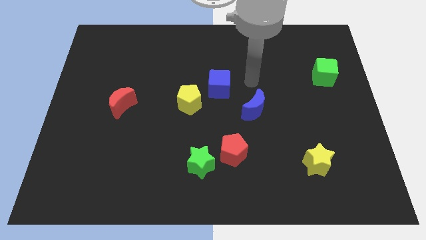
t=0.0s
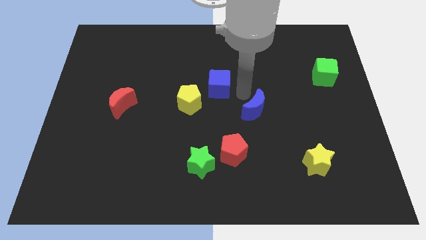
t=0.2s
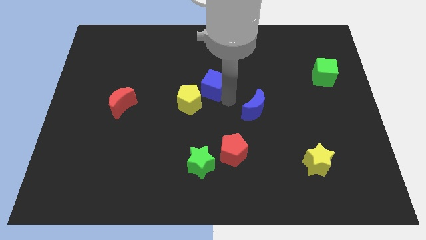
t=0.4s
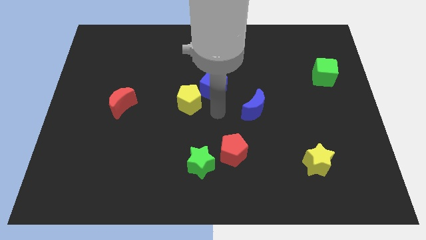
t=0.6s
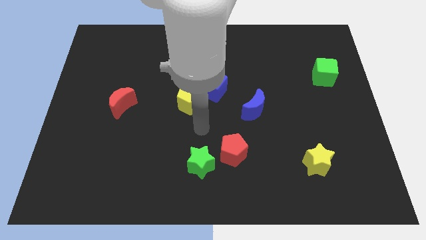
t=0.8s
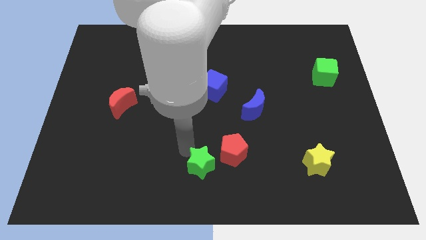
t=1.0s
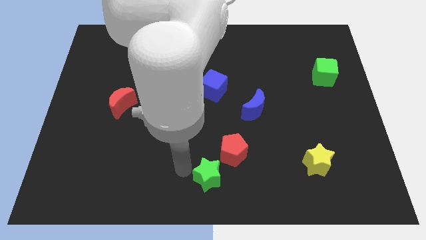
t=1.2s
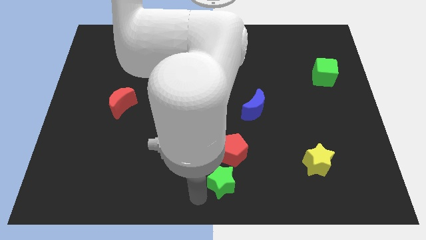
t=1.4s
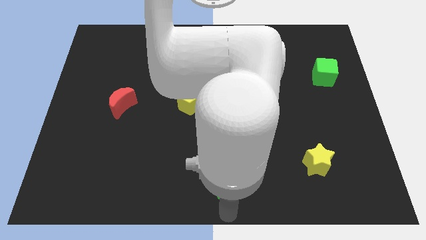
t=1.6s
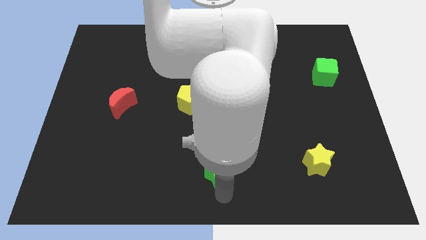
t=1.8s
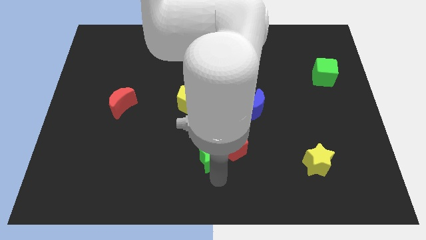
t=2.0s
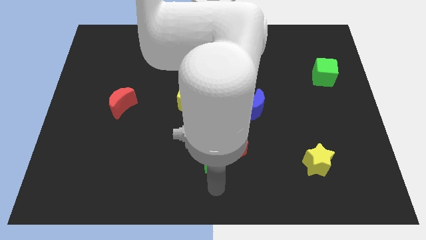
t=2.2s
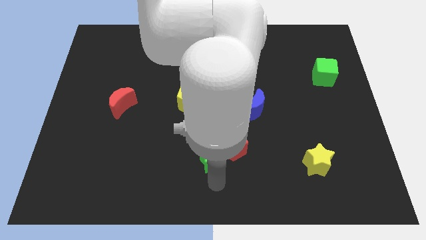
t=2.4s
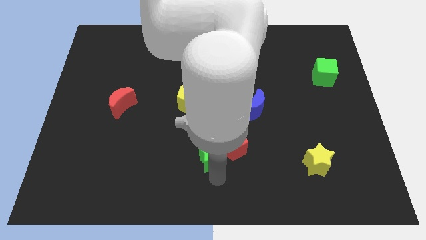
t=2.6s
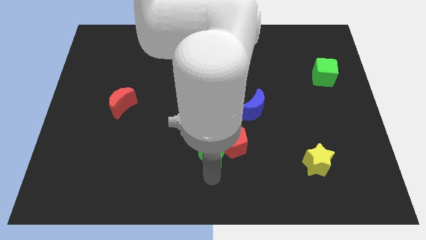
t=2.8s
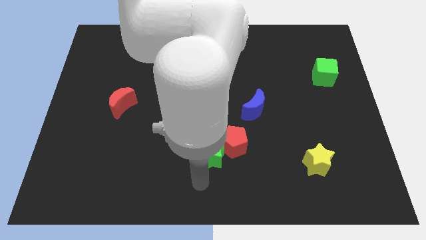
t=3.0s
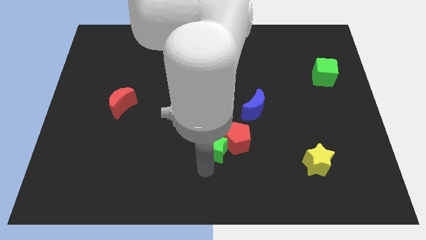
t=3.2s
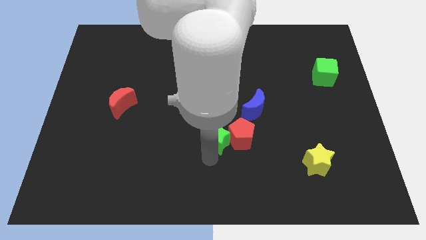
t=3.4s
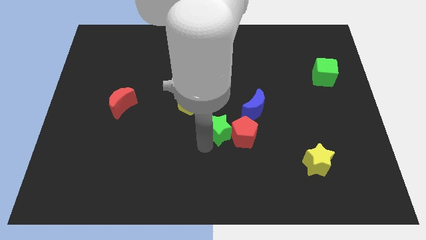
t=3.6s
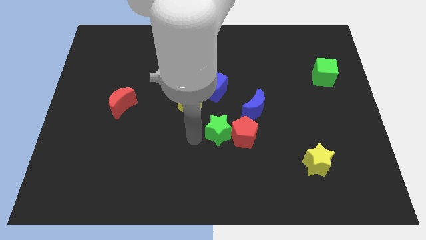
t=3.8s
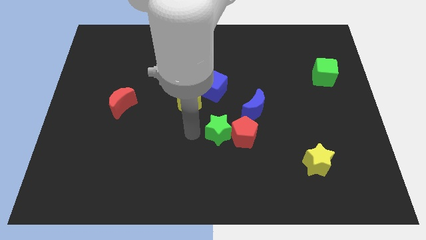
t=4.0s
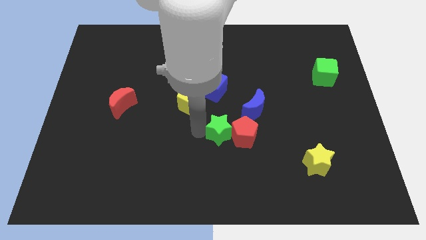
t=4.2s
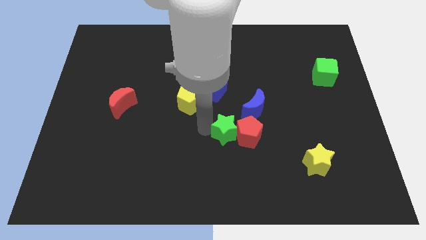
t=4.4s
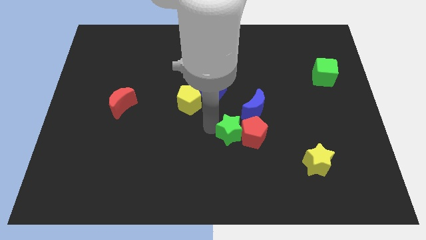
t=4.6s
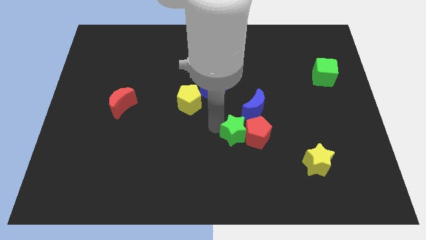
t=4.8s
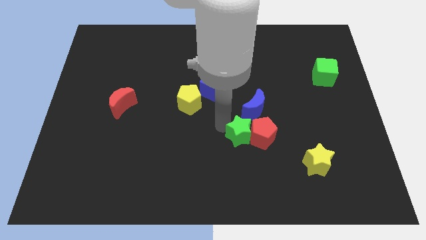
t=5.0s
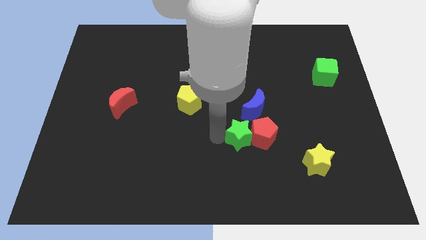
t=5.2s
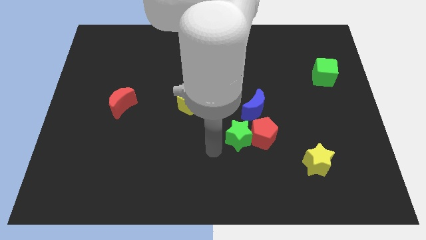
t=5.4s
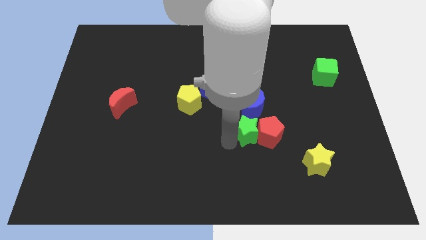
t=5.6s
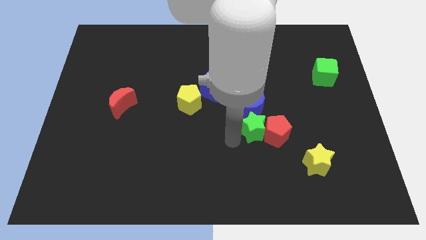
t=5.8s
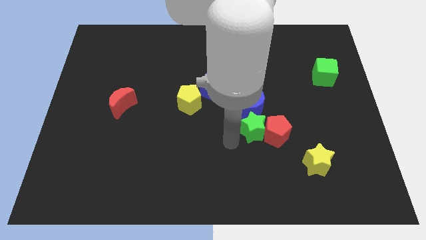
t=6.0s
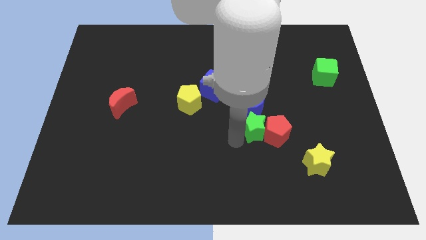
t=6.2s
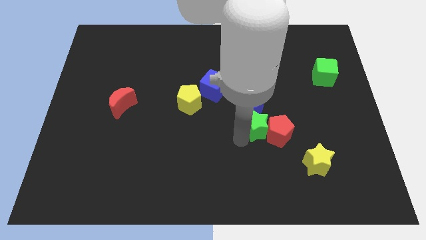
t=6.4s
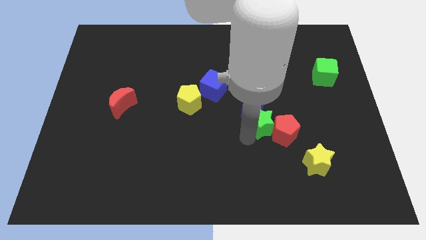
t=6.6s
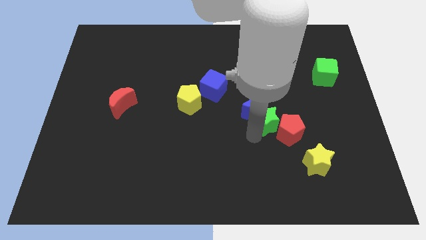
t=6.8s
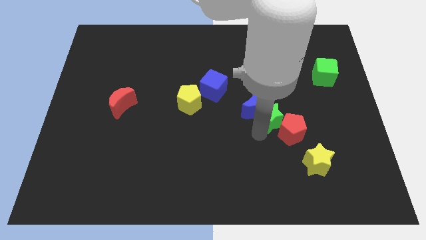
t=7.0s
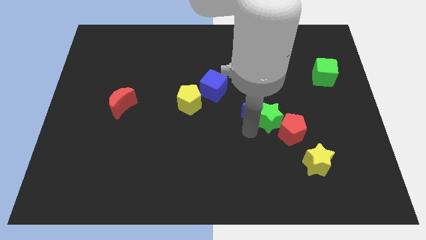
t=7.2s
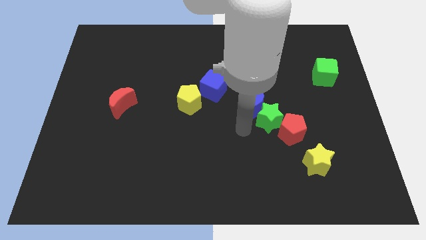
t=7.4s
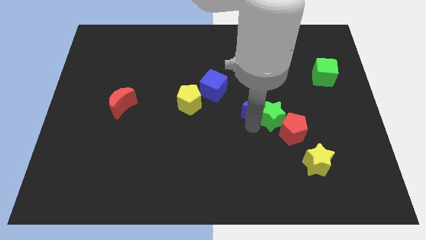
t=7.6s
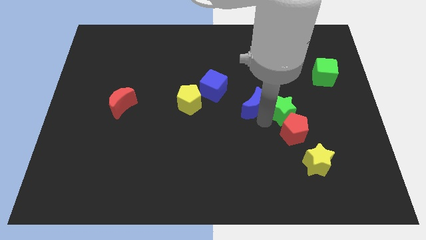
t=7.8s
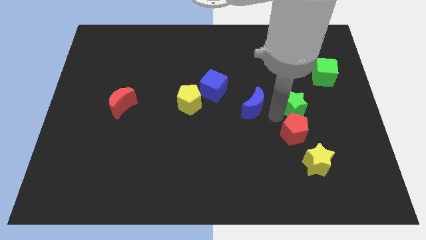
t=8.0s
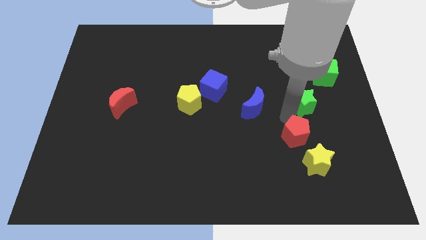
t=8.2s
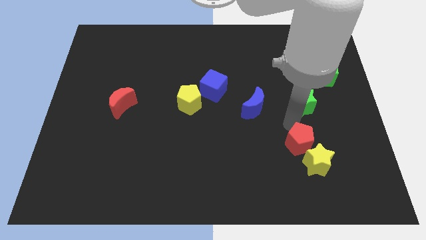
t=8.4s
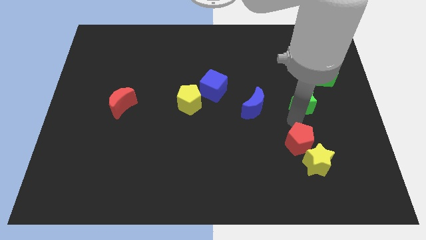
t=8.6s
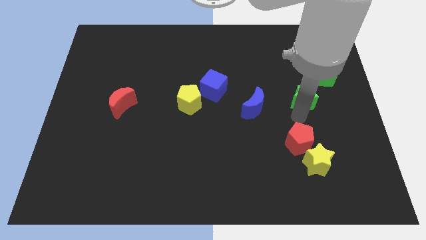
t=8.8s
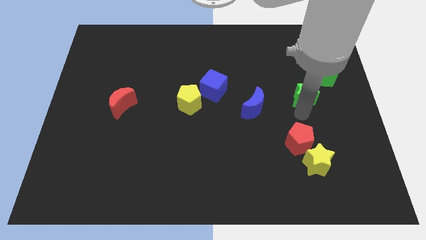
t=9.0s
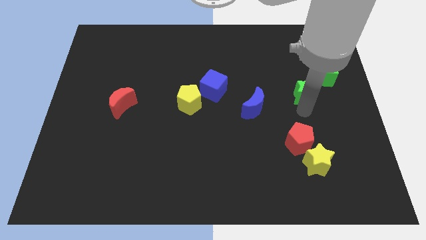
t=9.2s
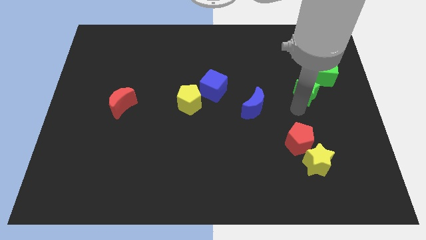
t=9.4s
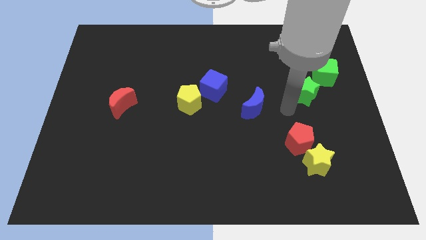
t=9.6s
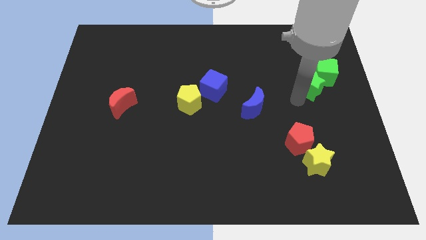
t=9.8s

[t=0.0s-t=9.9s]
push the green star to the green cube

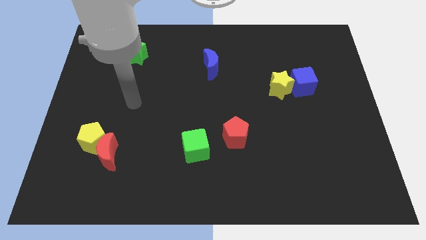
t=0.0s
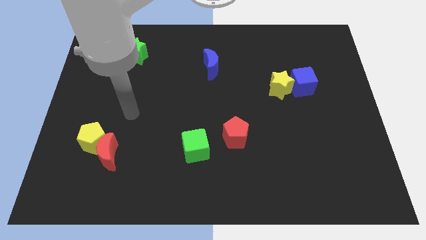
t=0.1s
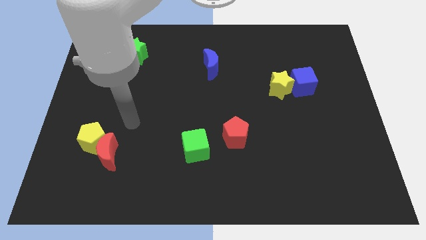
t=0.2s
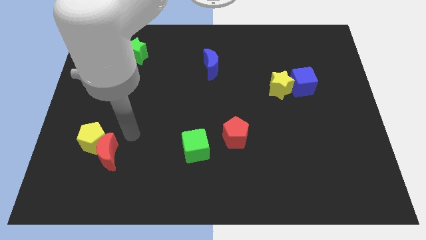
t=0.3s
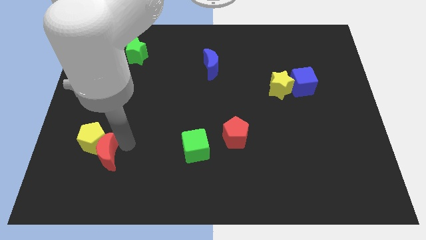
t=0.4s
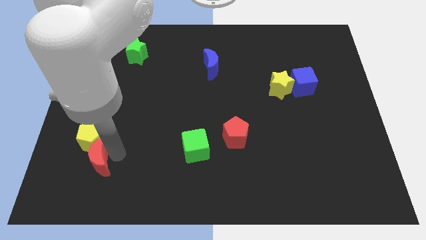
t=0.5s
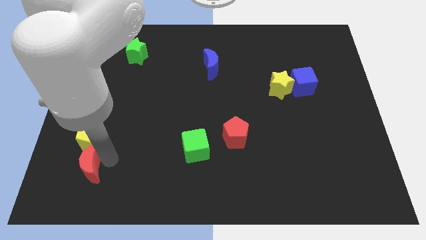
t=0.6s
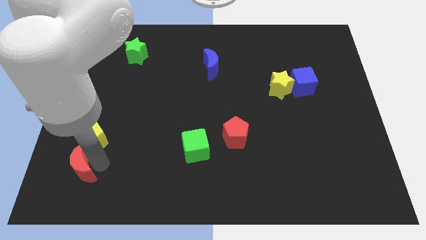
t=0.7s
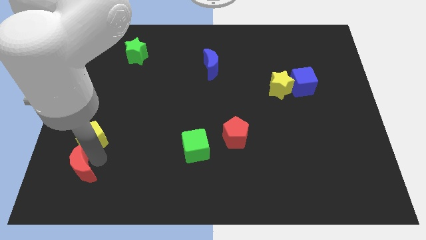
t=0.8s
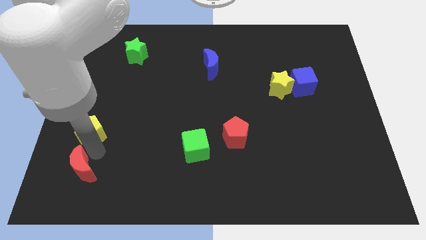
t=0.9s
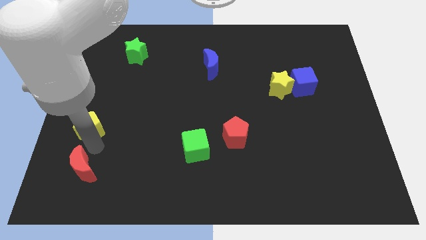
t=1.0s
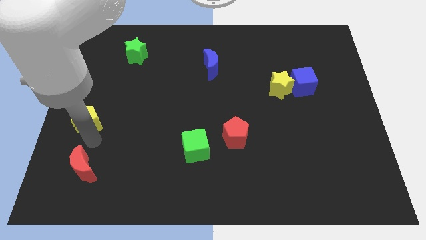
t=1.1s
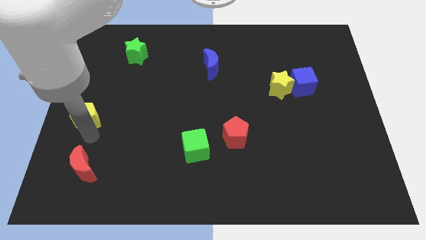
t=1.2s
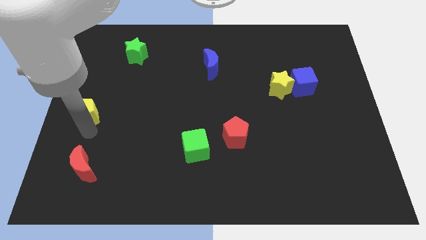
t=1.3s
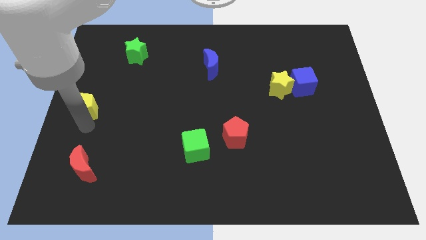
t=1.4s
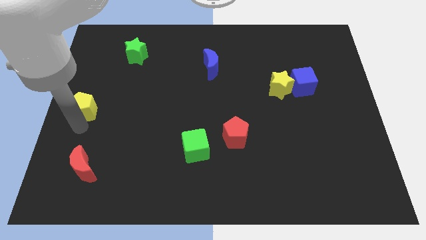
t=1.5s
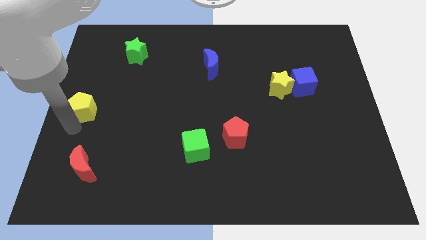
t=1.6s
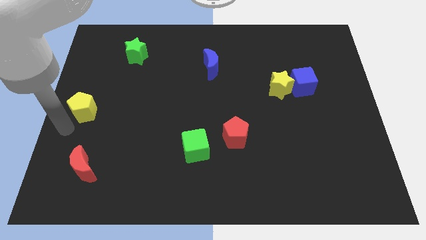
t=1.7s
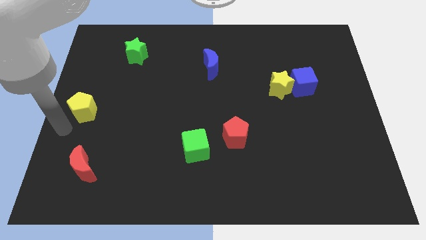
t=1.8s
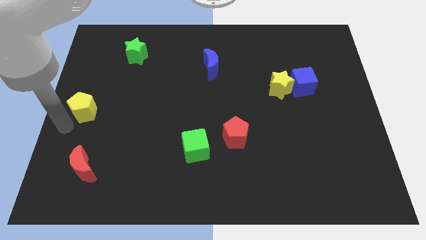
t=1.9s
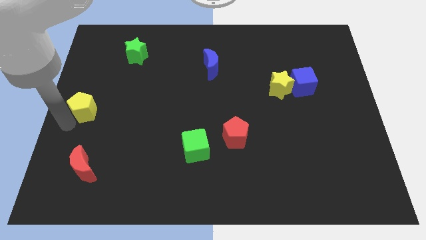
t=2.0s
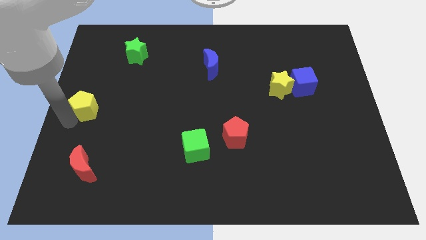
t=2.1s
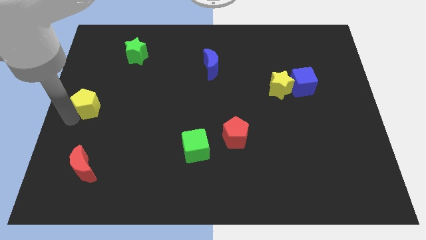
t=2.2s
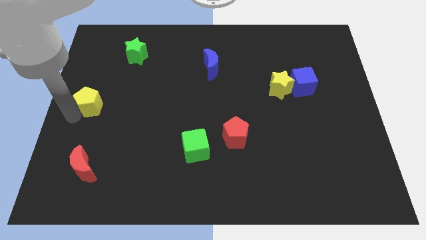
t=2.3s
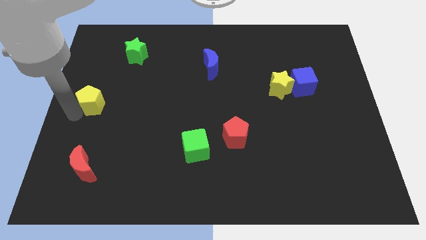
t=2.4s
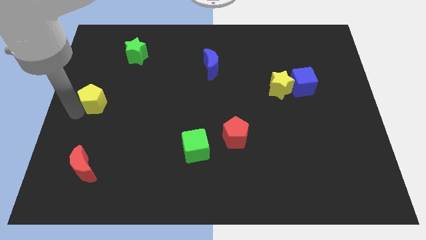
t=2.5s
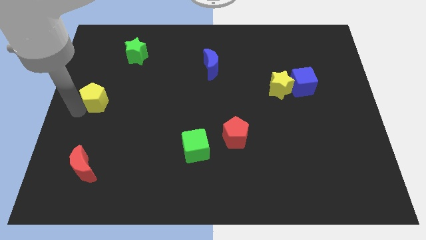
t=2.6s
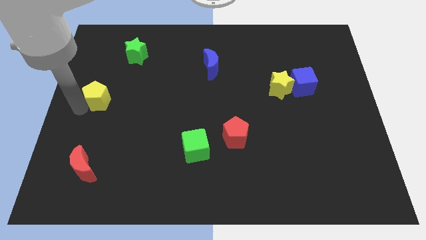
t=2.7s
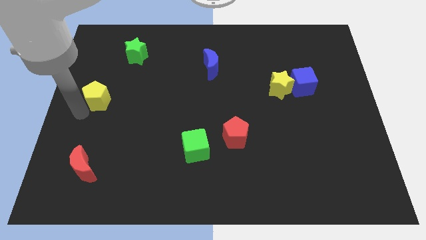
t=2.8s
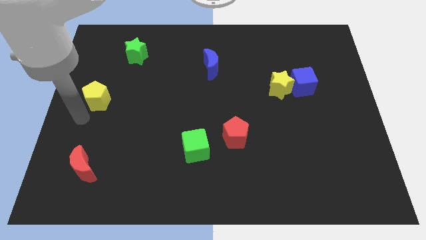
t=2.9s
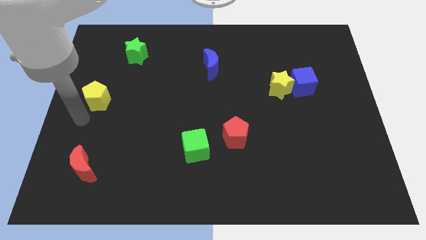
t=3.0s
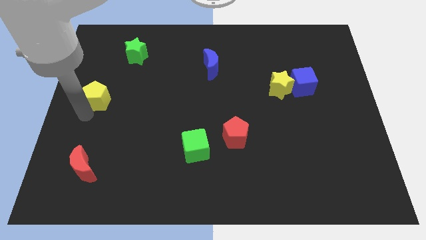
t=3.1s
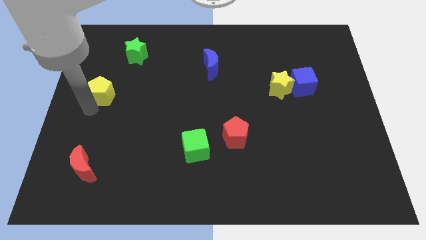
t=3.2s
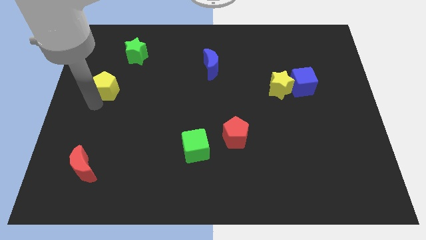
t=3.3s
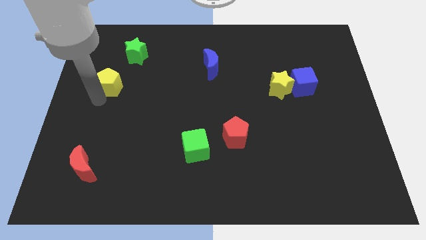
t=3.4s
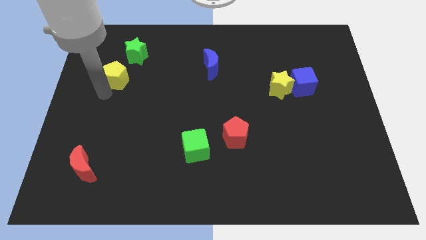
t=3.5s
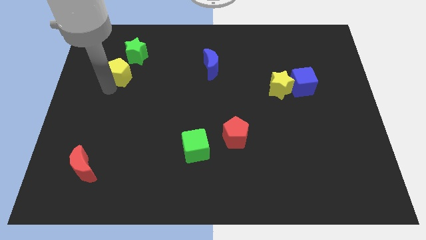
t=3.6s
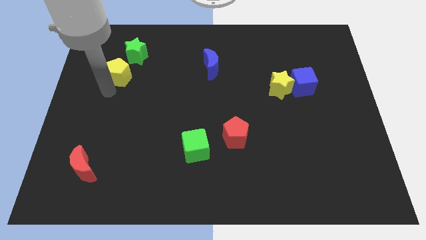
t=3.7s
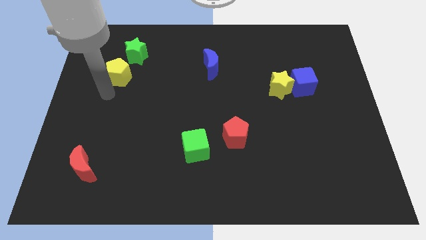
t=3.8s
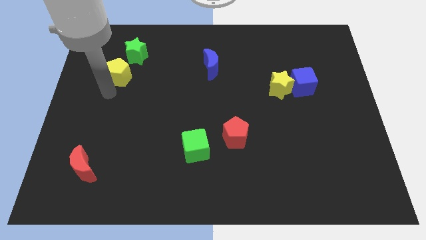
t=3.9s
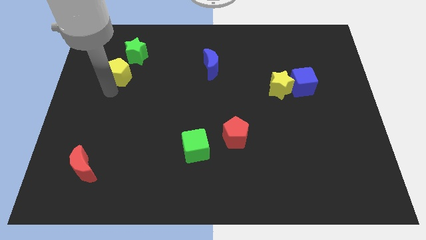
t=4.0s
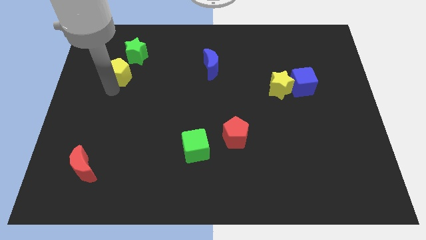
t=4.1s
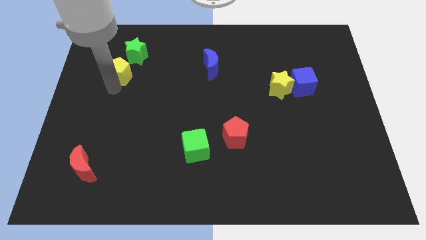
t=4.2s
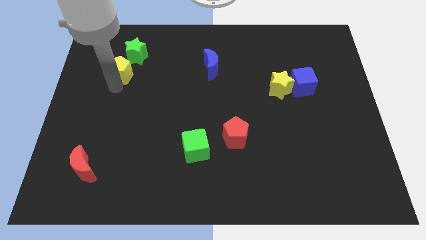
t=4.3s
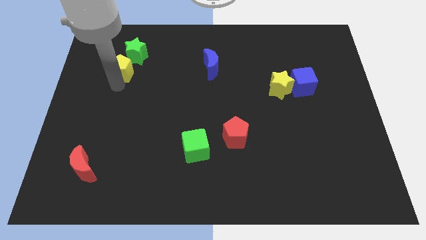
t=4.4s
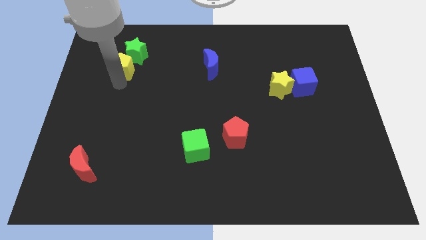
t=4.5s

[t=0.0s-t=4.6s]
put the yellow pentagon towards the green star
